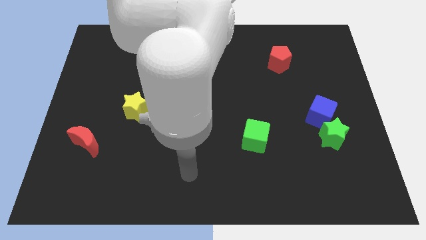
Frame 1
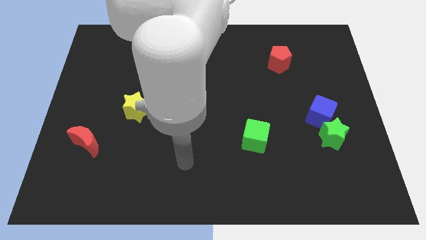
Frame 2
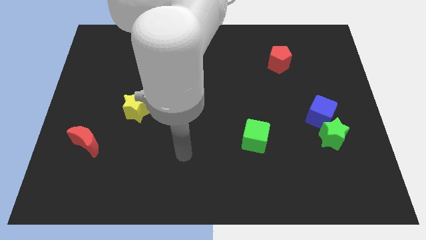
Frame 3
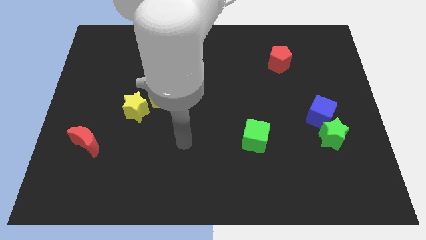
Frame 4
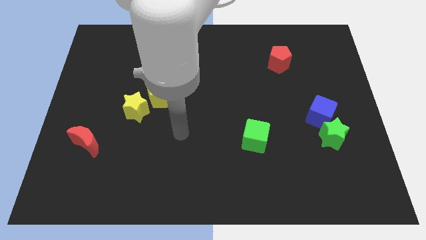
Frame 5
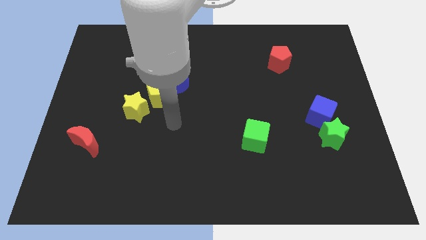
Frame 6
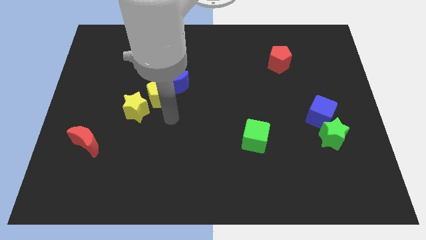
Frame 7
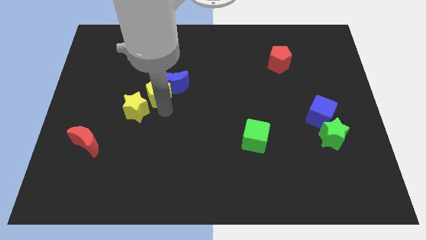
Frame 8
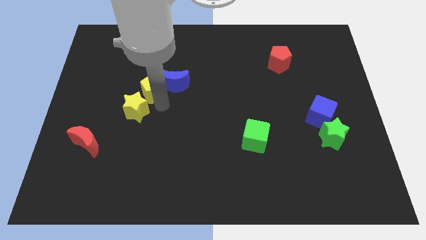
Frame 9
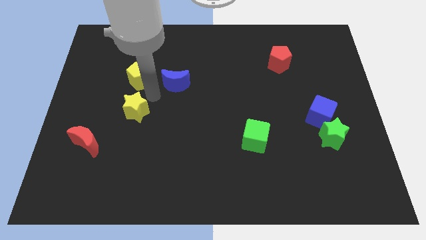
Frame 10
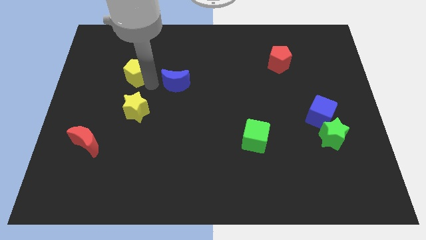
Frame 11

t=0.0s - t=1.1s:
pull the blue moon apart from the yellow pentagon

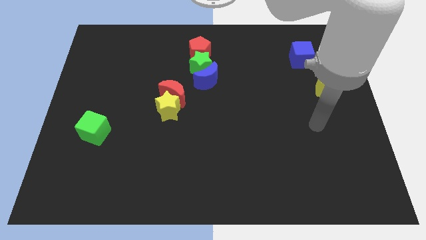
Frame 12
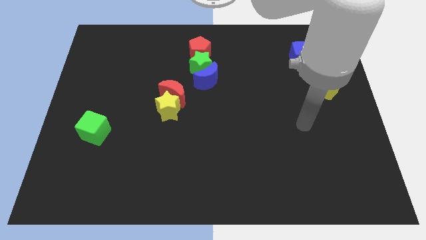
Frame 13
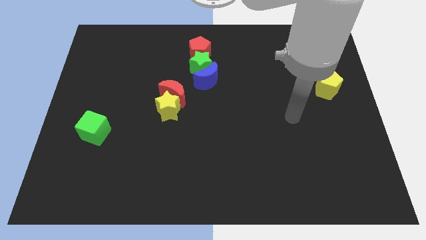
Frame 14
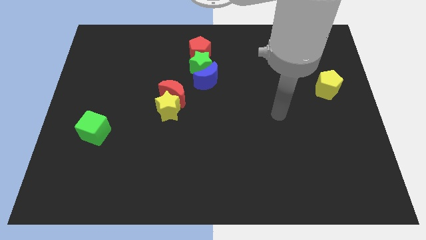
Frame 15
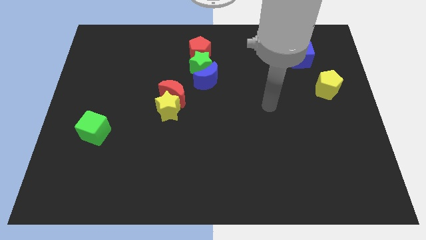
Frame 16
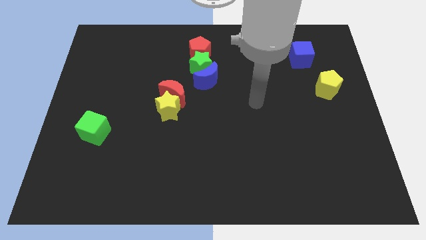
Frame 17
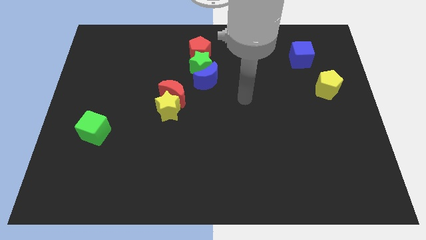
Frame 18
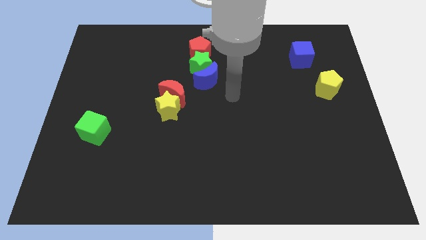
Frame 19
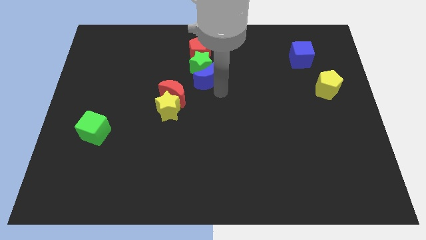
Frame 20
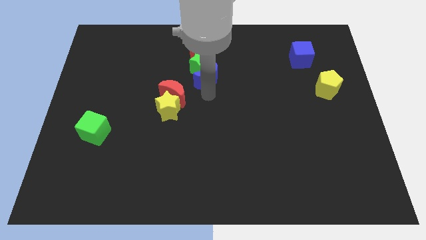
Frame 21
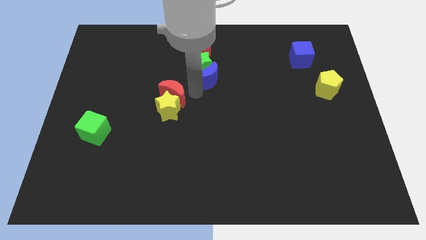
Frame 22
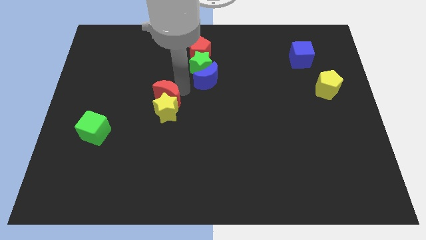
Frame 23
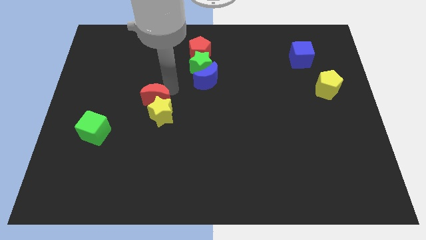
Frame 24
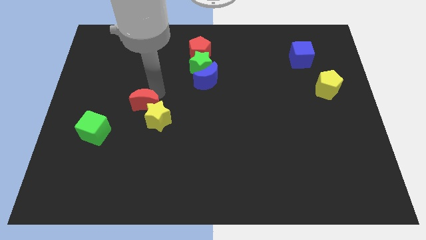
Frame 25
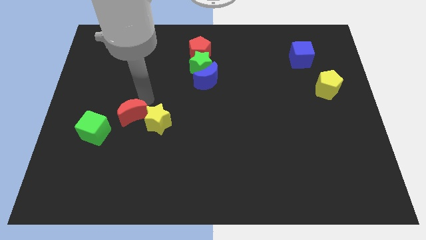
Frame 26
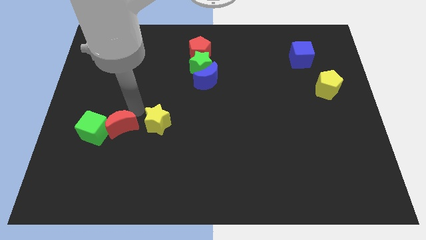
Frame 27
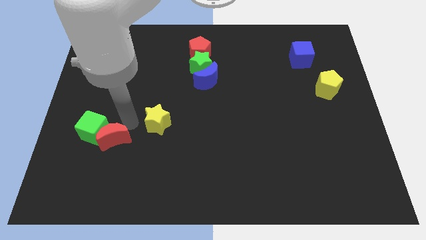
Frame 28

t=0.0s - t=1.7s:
move the yellow star away from the red moon

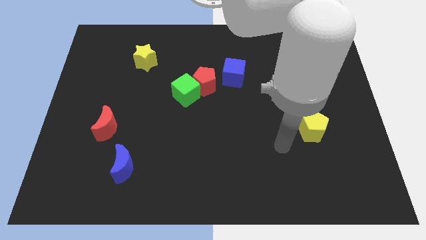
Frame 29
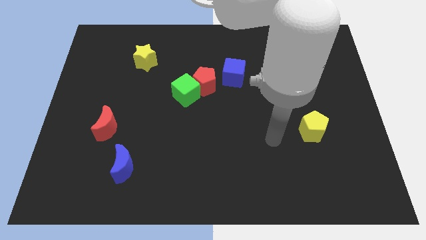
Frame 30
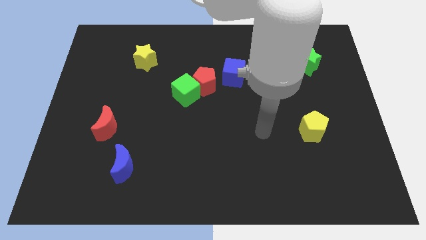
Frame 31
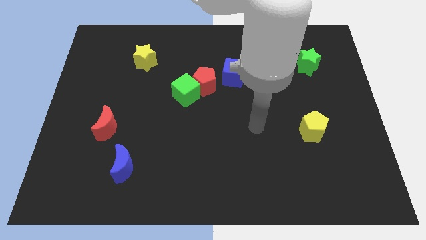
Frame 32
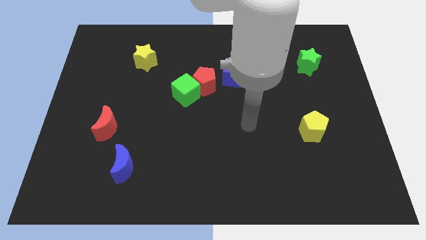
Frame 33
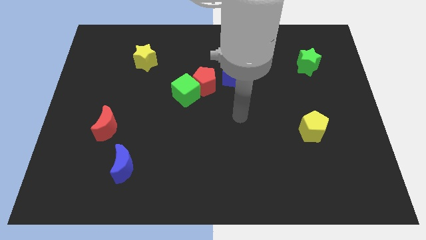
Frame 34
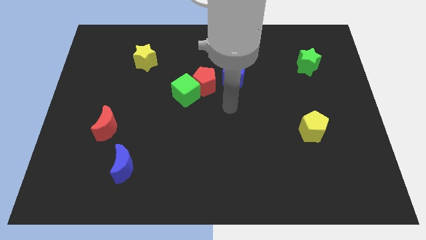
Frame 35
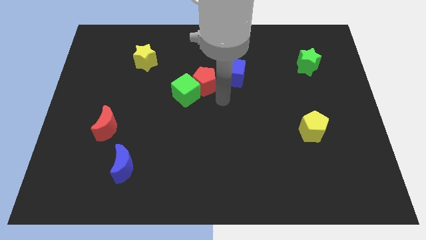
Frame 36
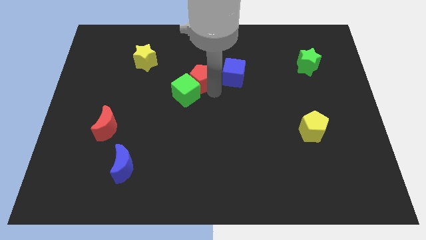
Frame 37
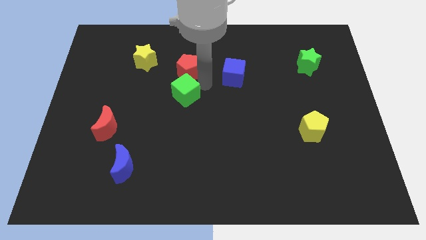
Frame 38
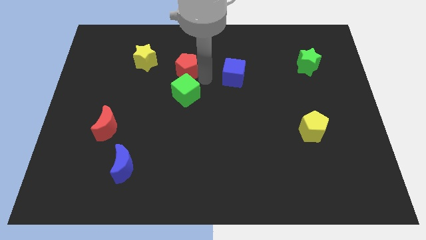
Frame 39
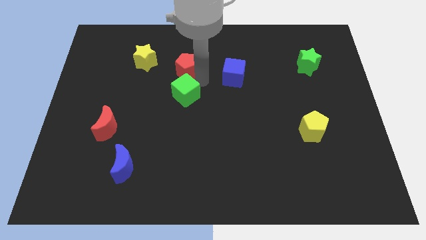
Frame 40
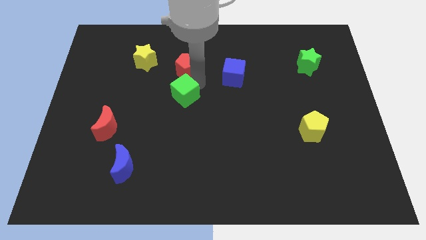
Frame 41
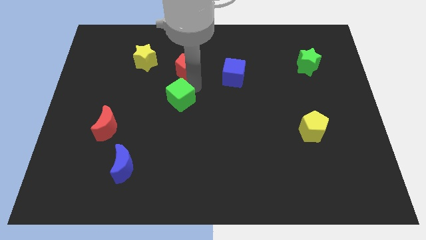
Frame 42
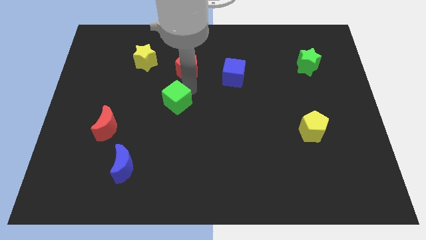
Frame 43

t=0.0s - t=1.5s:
separate the green cube from the red pentagon

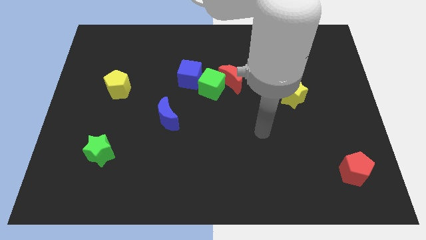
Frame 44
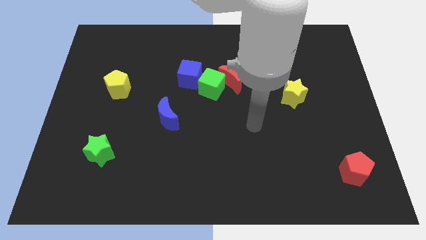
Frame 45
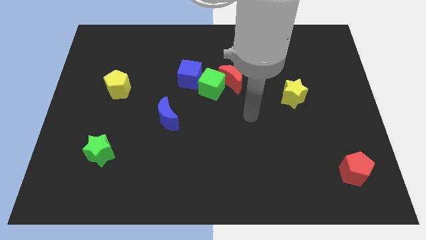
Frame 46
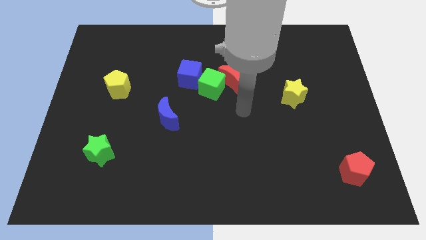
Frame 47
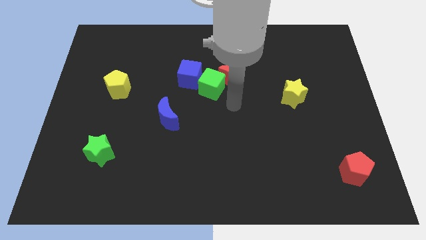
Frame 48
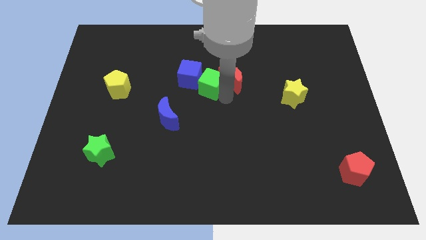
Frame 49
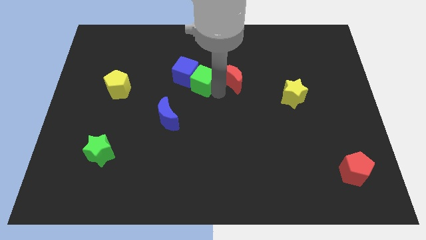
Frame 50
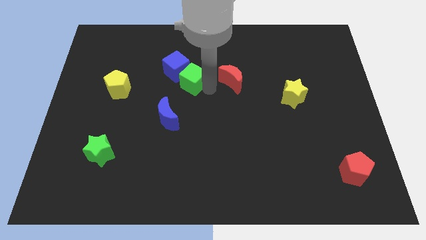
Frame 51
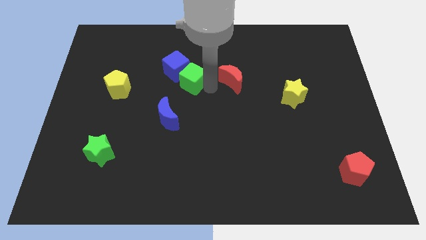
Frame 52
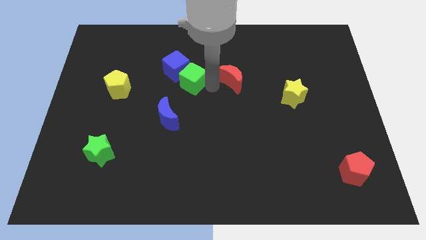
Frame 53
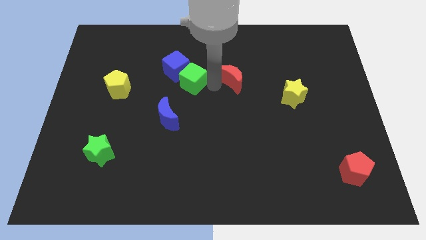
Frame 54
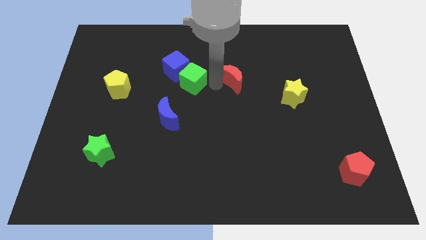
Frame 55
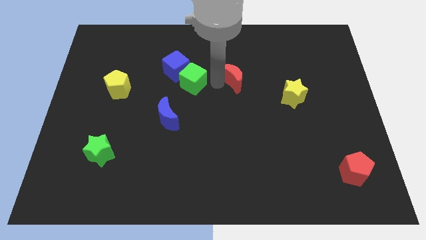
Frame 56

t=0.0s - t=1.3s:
move the red moon away from the green cube

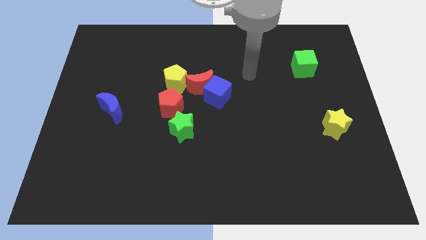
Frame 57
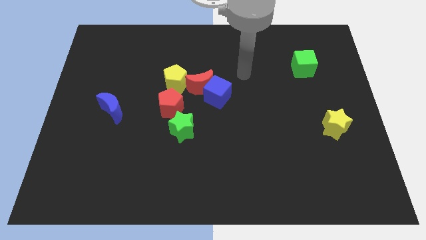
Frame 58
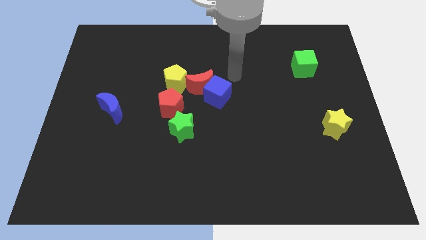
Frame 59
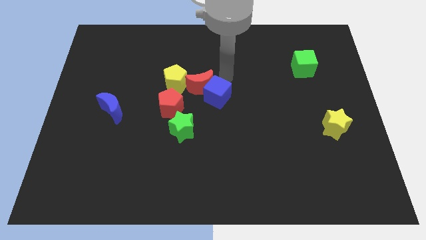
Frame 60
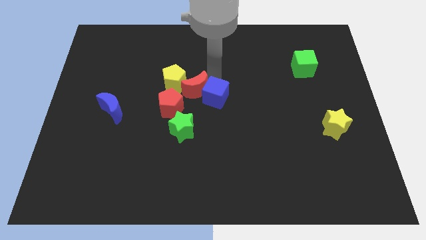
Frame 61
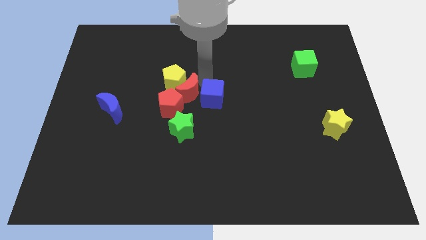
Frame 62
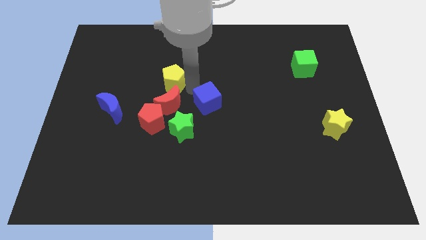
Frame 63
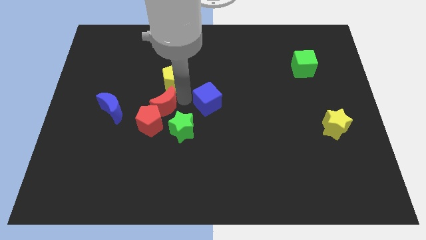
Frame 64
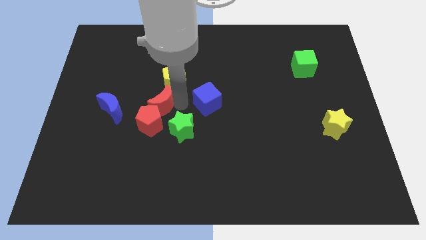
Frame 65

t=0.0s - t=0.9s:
pull the blue cube apart from the red moon

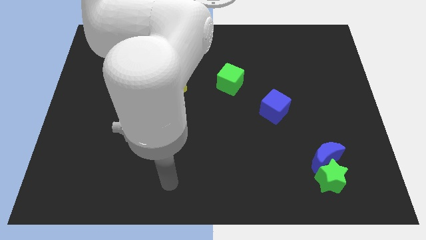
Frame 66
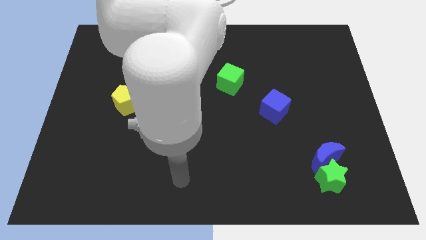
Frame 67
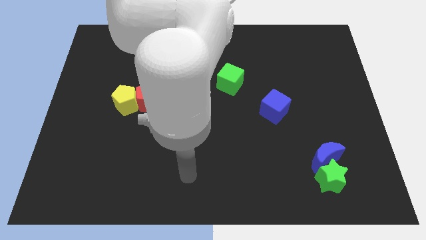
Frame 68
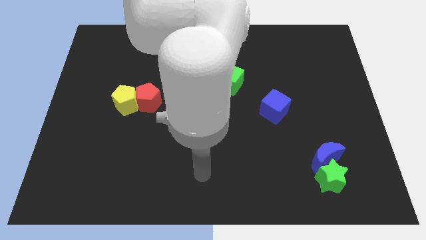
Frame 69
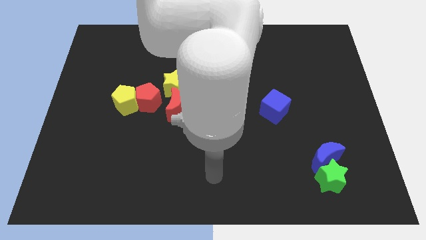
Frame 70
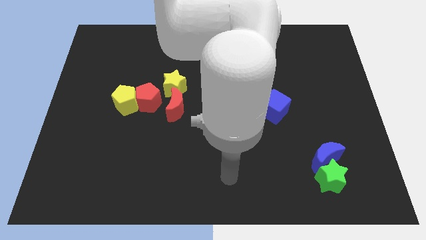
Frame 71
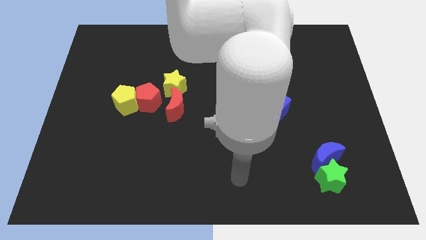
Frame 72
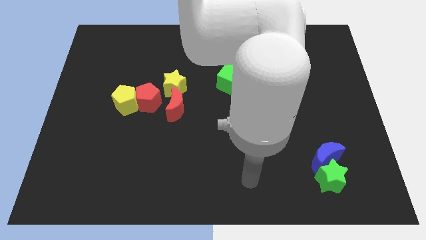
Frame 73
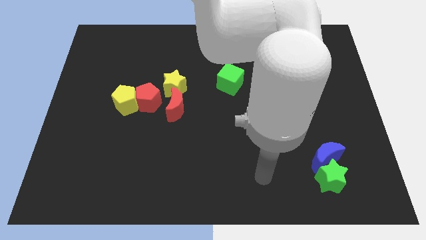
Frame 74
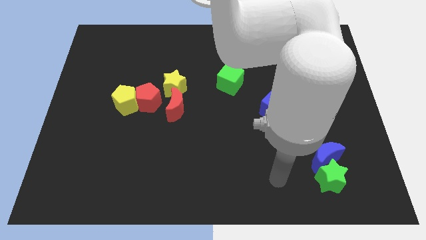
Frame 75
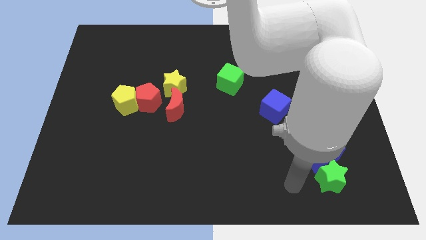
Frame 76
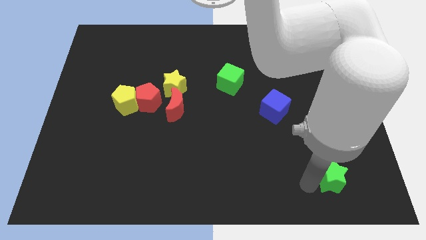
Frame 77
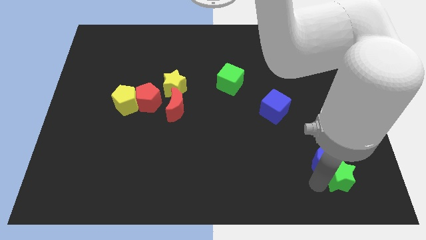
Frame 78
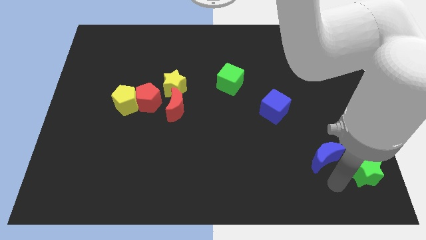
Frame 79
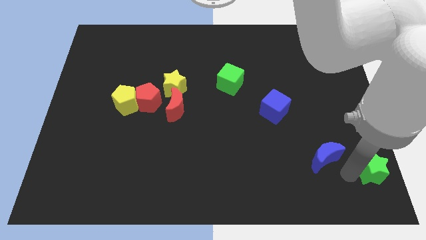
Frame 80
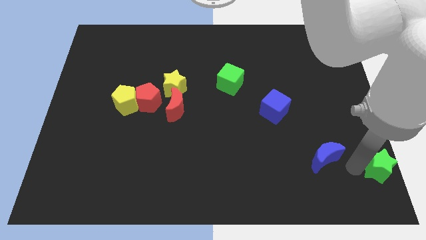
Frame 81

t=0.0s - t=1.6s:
pull the blue moon apart from the green star

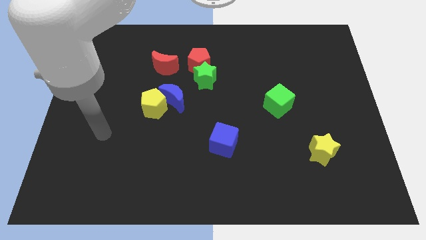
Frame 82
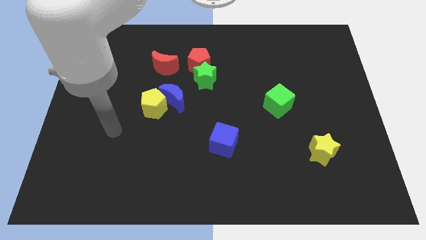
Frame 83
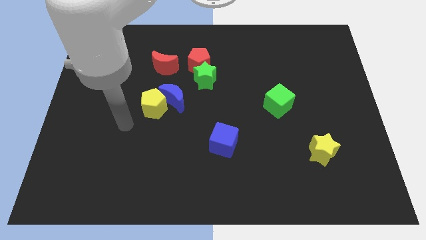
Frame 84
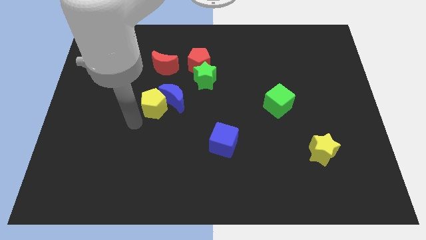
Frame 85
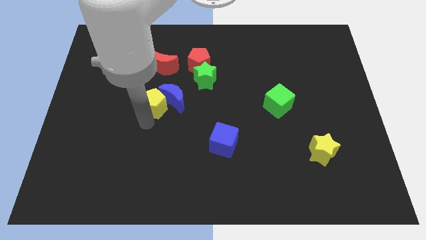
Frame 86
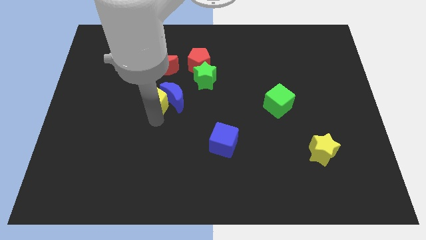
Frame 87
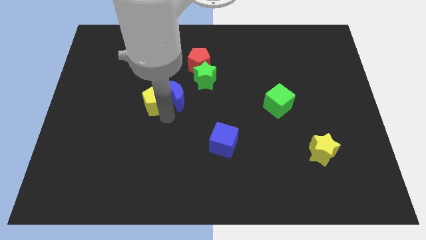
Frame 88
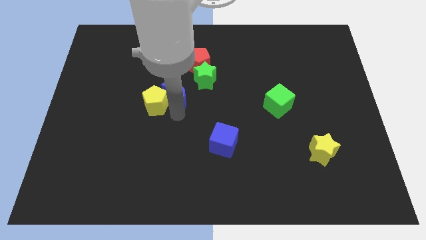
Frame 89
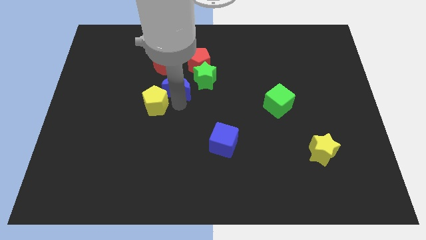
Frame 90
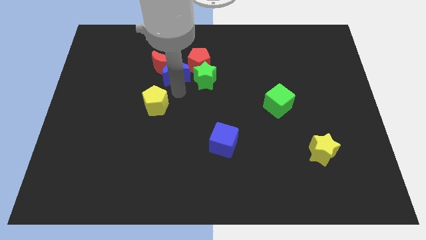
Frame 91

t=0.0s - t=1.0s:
move the yellow pentagon away from the blue moon

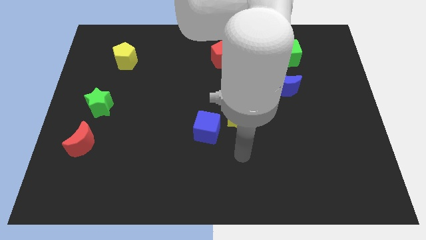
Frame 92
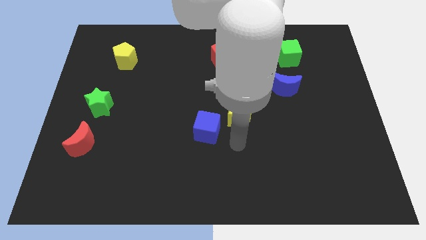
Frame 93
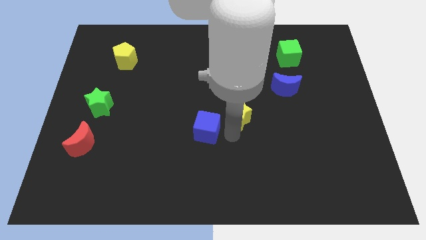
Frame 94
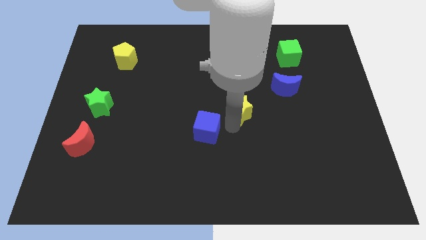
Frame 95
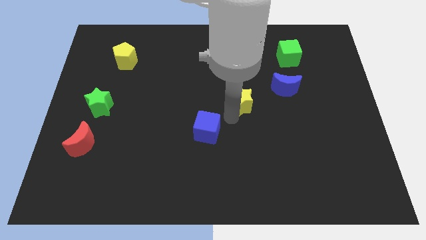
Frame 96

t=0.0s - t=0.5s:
move the blue cube away from the yellow star
